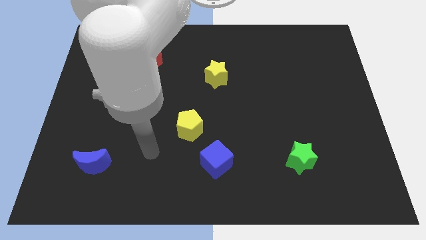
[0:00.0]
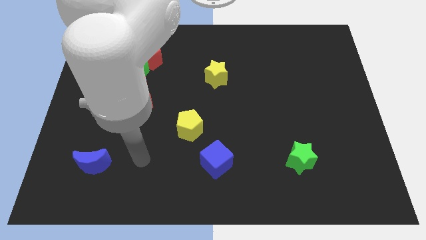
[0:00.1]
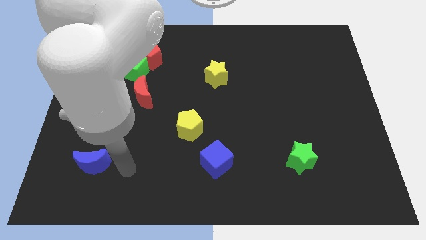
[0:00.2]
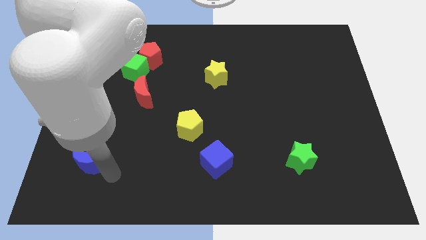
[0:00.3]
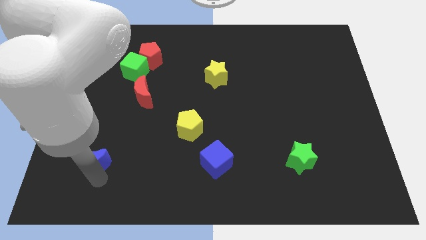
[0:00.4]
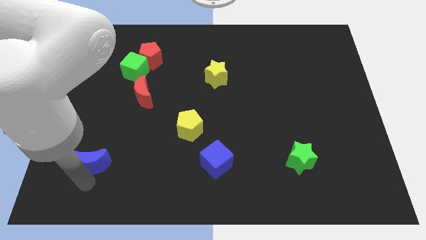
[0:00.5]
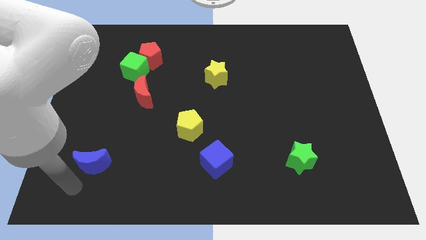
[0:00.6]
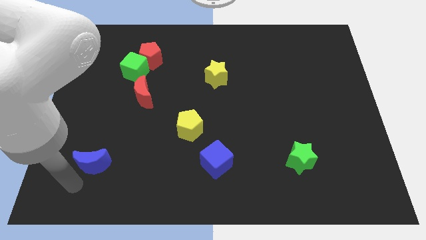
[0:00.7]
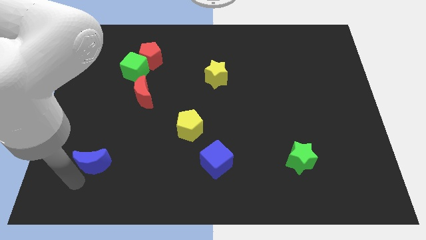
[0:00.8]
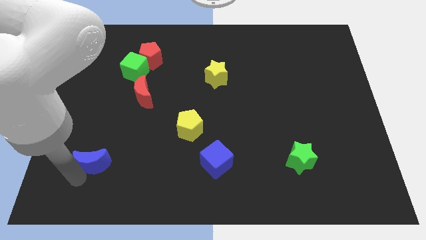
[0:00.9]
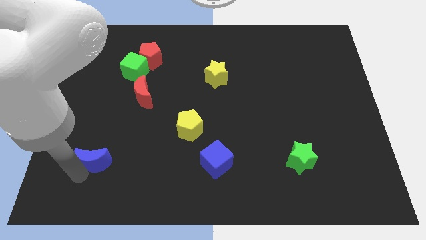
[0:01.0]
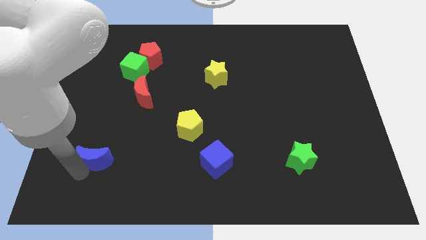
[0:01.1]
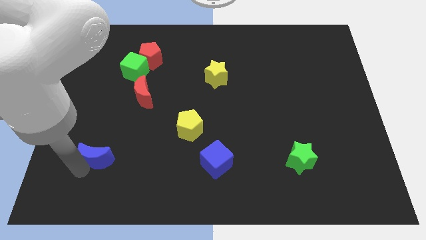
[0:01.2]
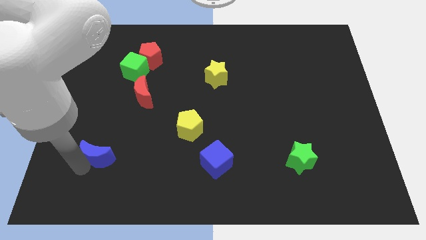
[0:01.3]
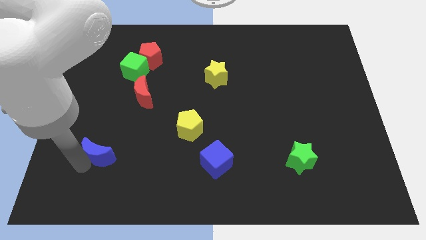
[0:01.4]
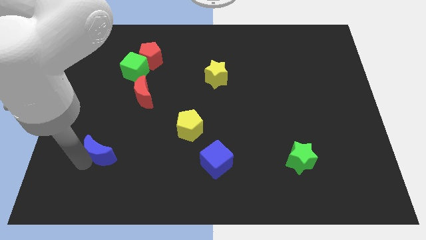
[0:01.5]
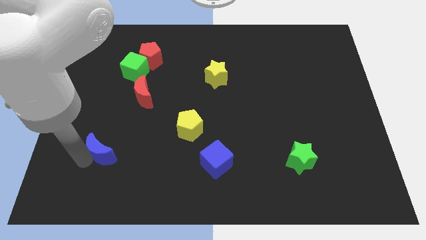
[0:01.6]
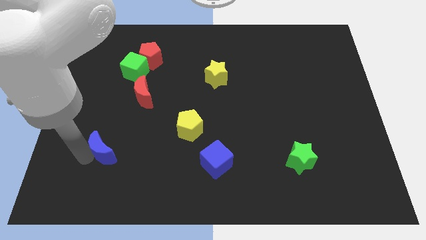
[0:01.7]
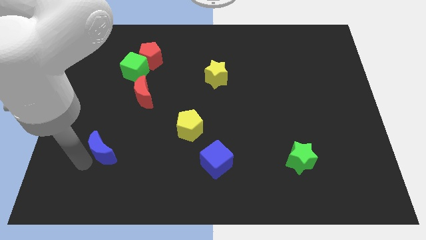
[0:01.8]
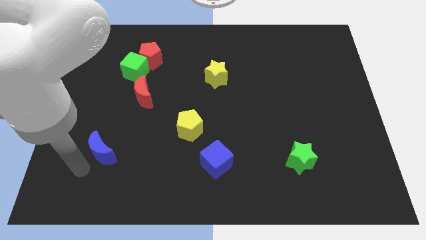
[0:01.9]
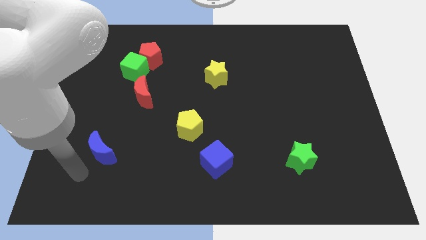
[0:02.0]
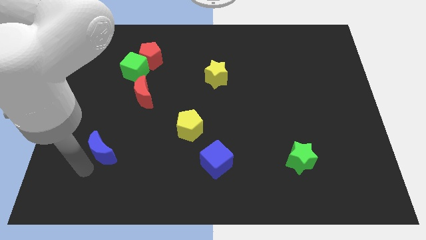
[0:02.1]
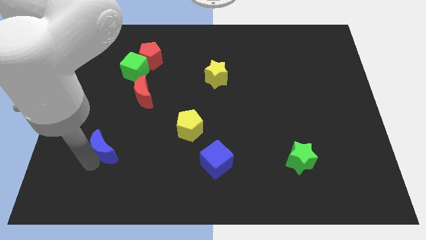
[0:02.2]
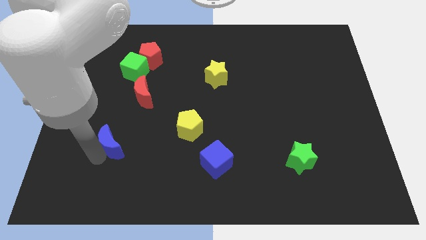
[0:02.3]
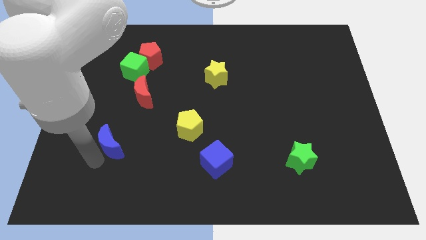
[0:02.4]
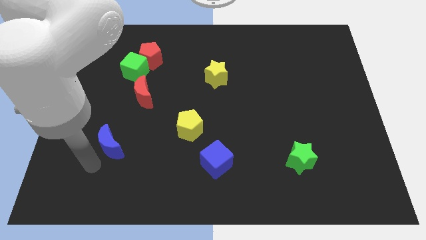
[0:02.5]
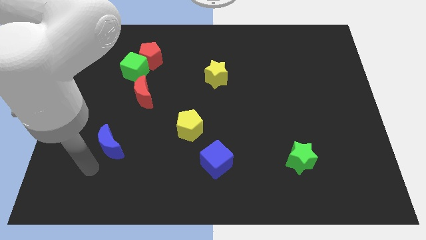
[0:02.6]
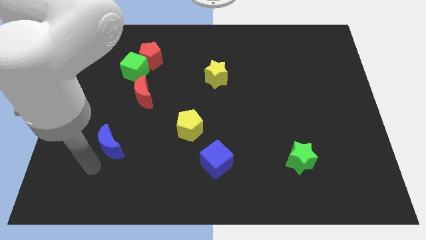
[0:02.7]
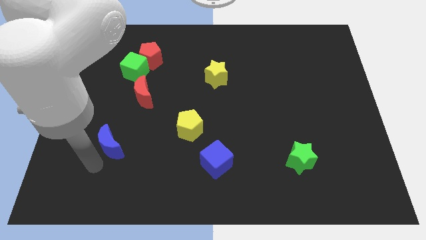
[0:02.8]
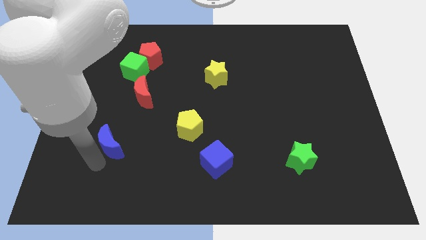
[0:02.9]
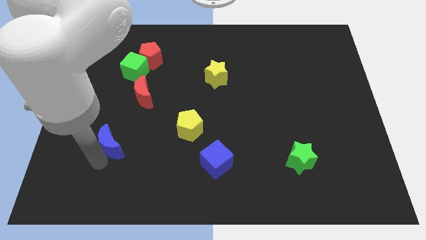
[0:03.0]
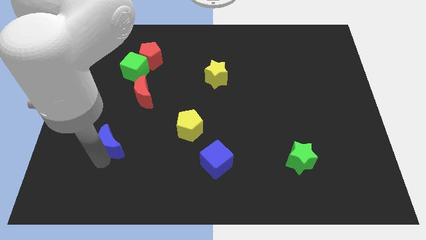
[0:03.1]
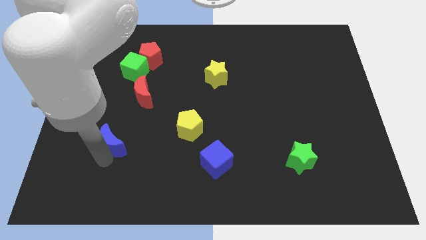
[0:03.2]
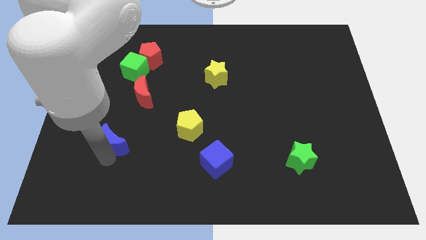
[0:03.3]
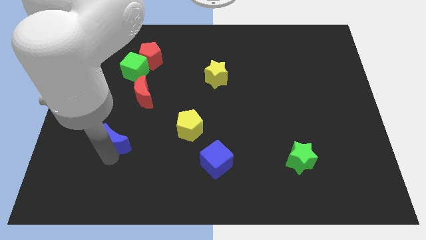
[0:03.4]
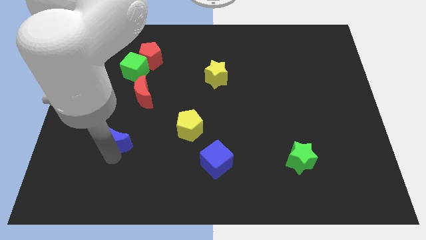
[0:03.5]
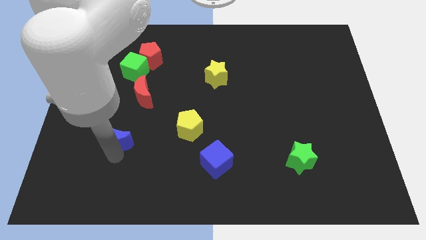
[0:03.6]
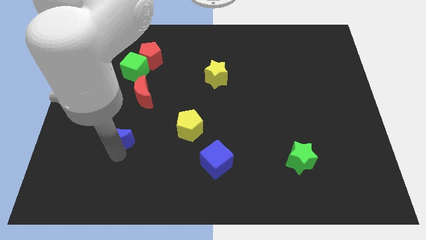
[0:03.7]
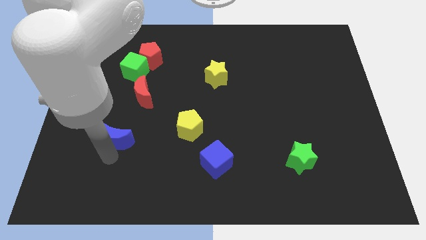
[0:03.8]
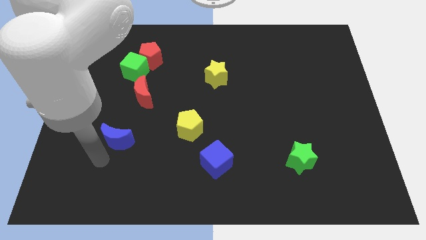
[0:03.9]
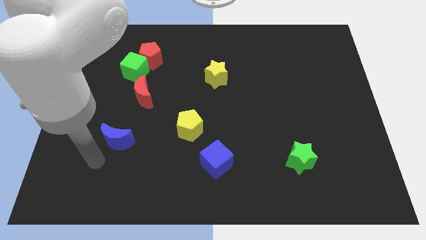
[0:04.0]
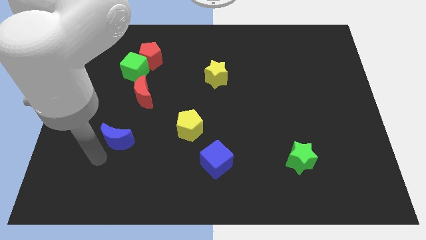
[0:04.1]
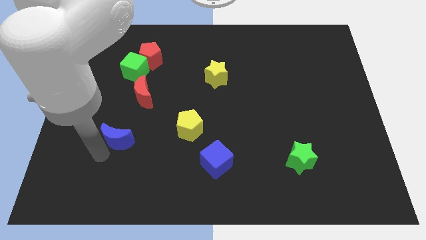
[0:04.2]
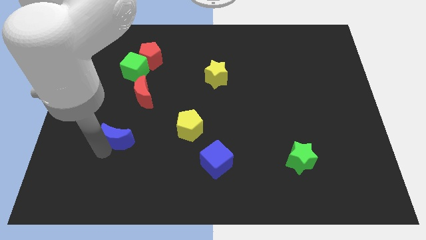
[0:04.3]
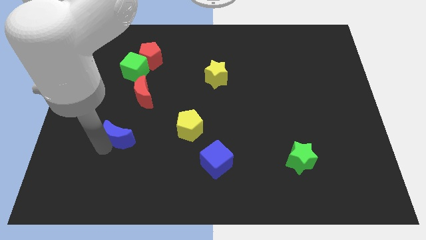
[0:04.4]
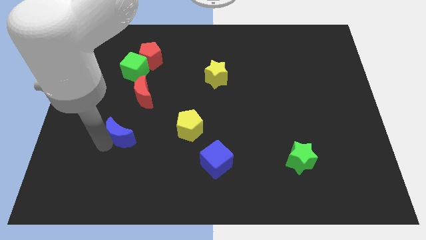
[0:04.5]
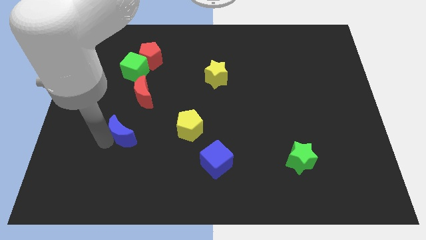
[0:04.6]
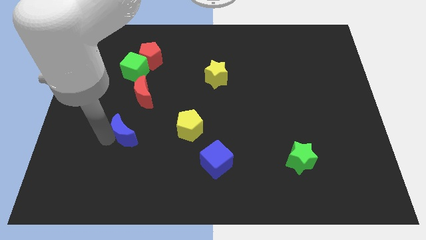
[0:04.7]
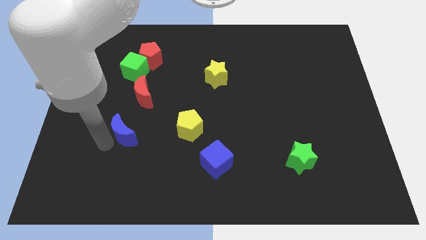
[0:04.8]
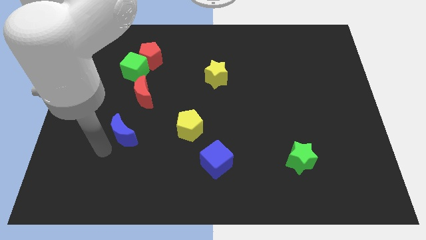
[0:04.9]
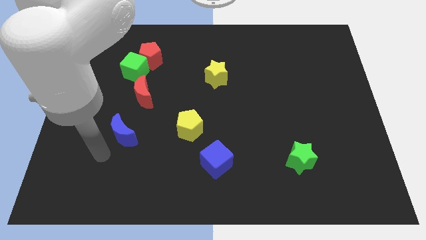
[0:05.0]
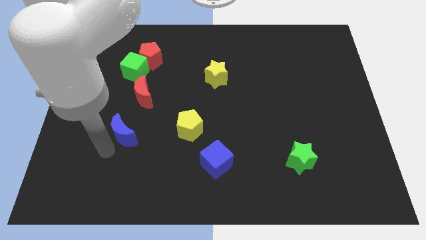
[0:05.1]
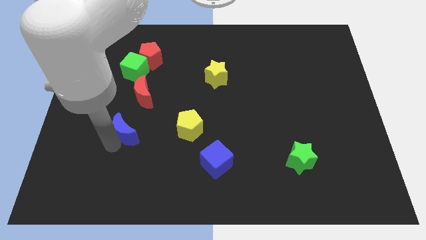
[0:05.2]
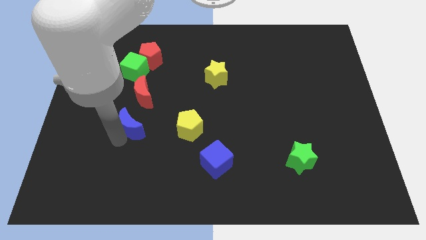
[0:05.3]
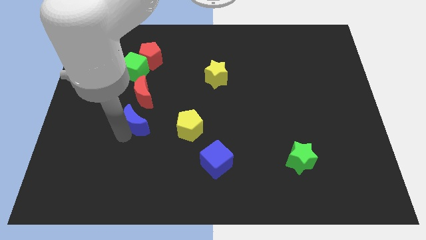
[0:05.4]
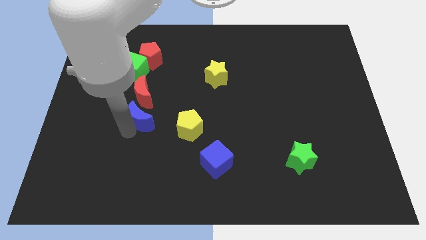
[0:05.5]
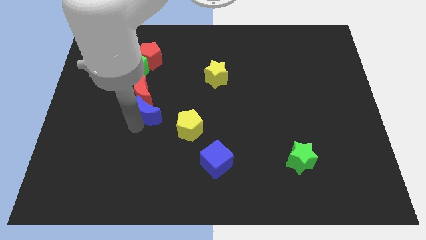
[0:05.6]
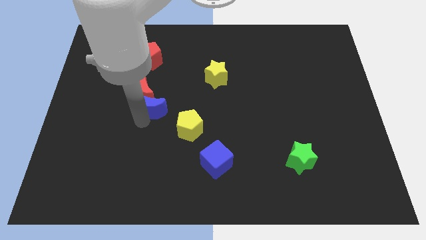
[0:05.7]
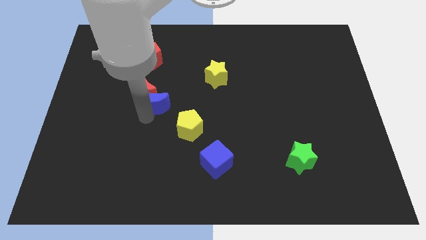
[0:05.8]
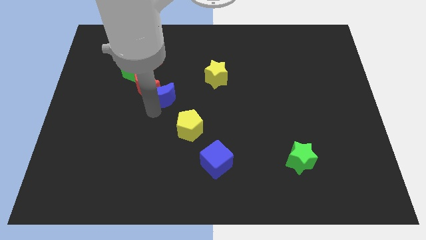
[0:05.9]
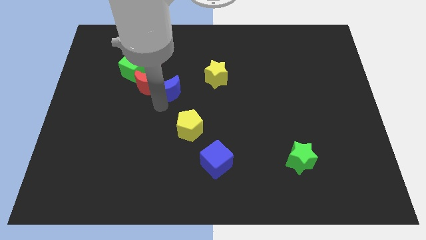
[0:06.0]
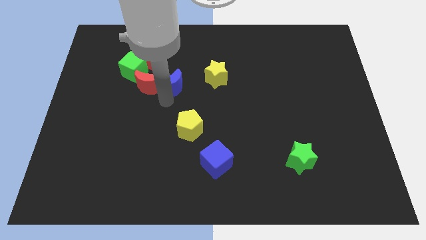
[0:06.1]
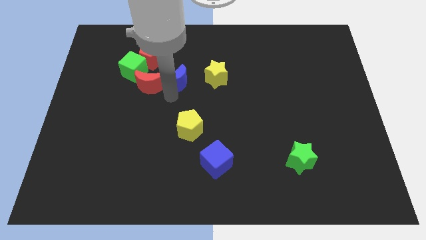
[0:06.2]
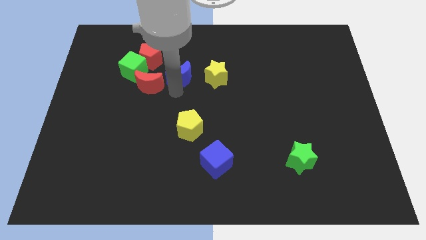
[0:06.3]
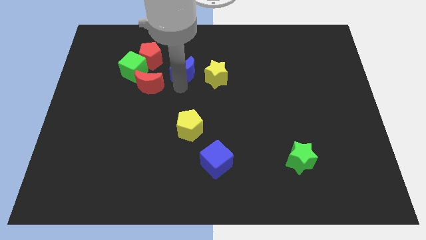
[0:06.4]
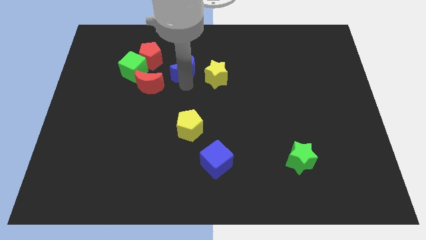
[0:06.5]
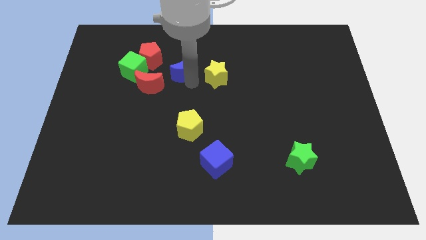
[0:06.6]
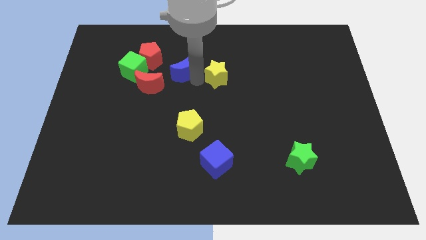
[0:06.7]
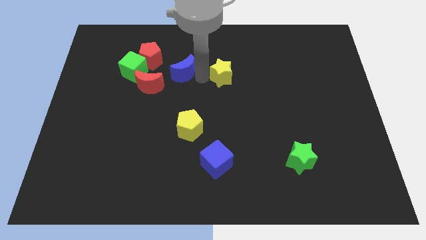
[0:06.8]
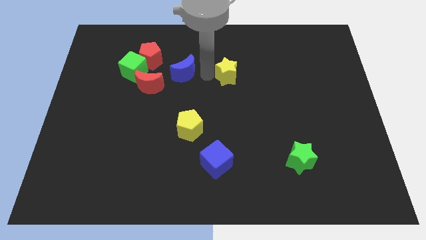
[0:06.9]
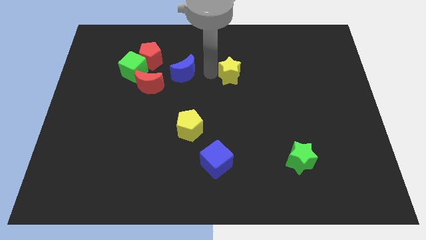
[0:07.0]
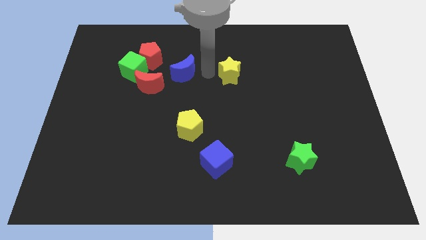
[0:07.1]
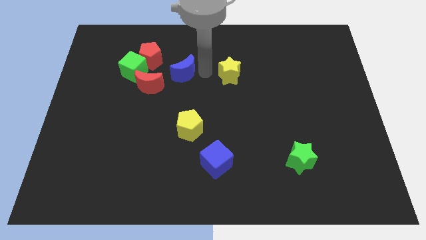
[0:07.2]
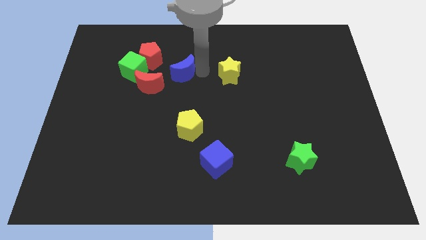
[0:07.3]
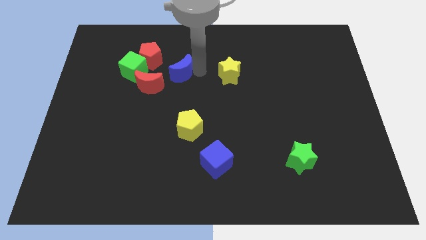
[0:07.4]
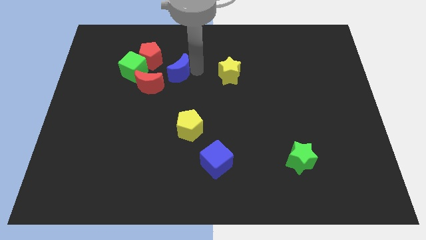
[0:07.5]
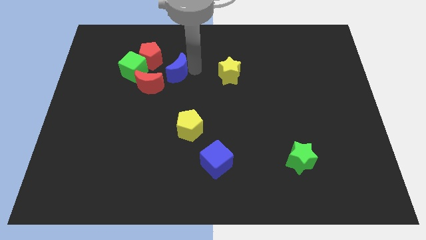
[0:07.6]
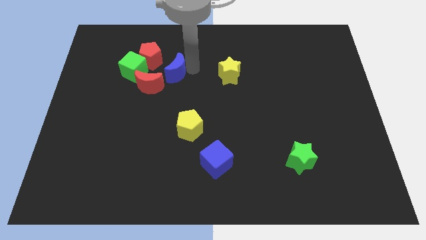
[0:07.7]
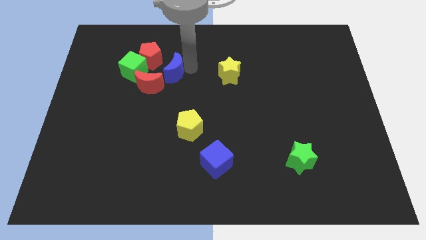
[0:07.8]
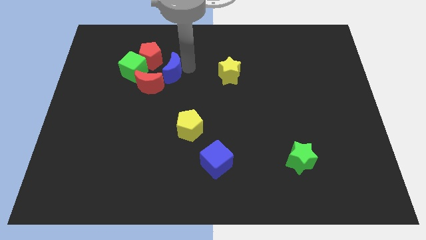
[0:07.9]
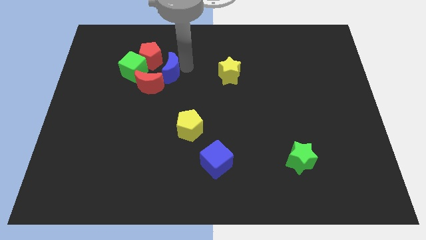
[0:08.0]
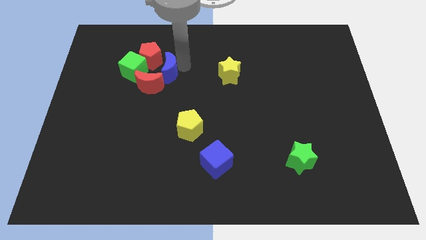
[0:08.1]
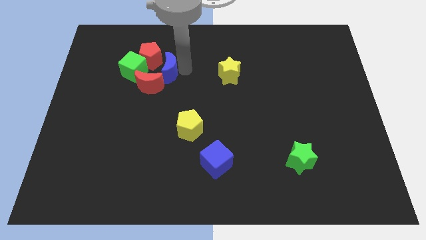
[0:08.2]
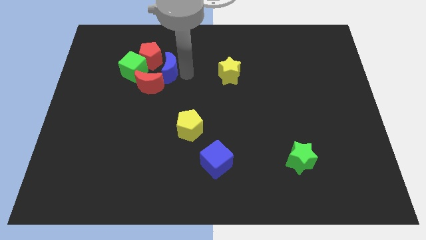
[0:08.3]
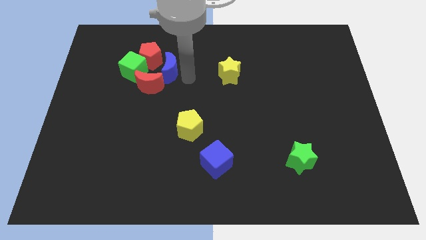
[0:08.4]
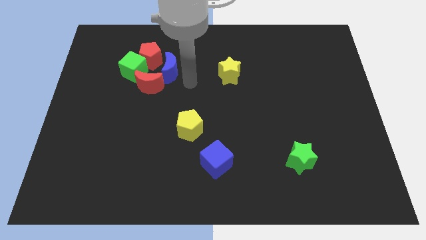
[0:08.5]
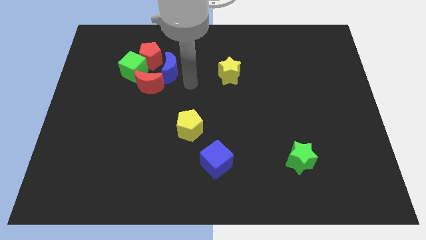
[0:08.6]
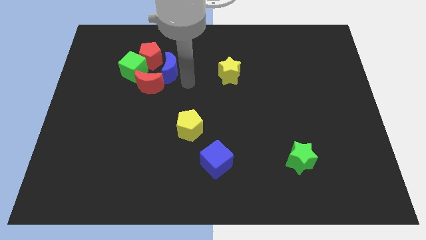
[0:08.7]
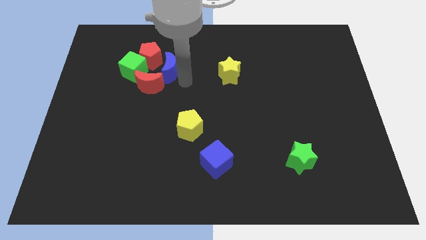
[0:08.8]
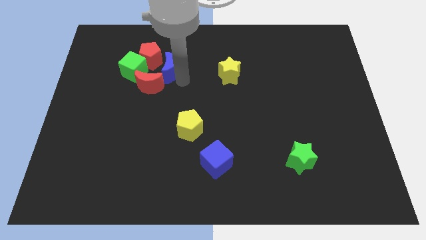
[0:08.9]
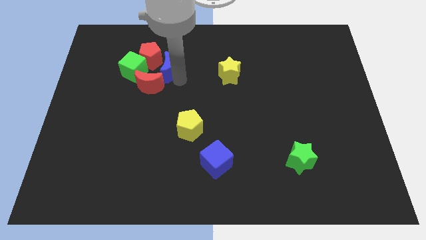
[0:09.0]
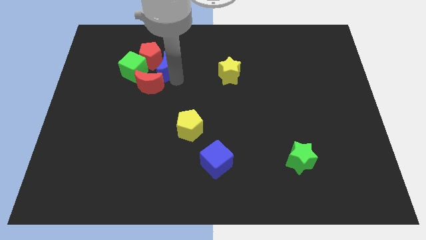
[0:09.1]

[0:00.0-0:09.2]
push the blue moon close to the red pentagon
